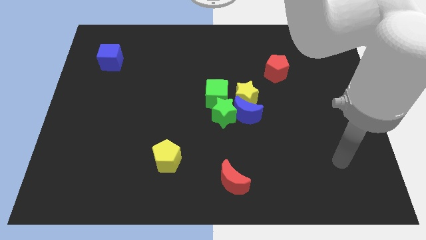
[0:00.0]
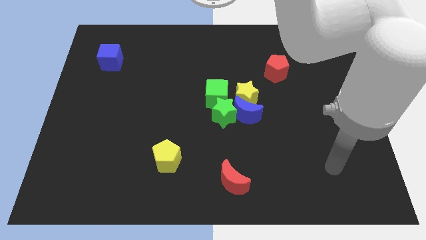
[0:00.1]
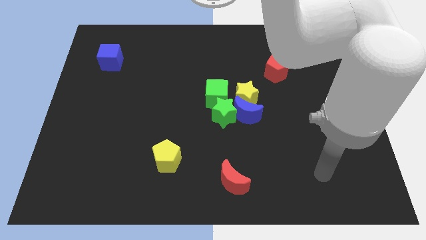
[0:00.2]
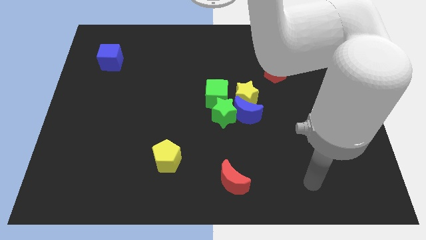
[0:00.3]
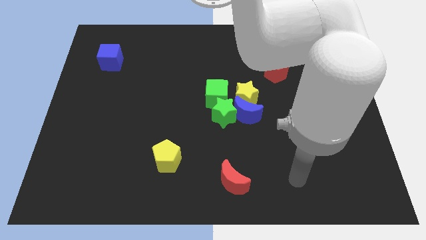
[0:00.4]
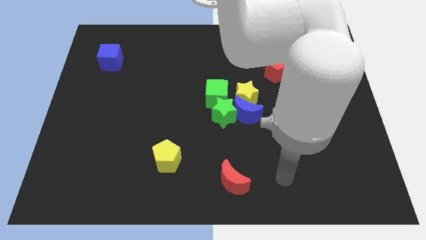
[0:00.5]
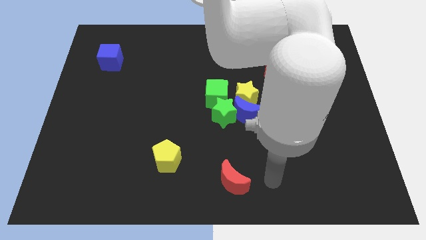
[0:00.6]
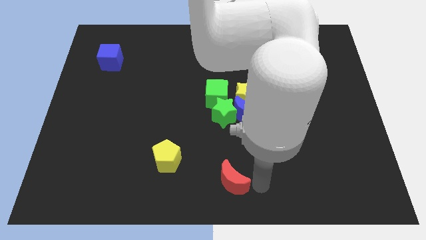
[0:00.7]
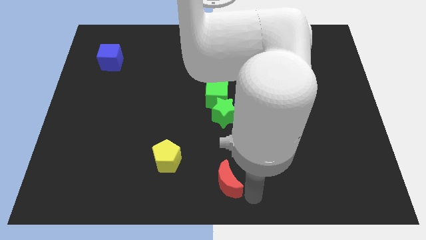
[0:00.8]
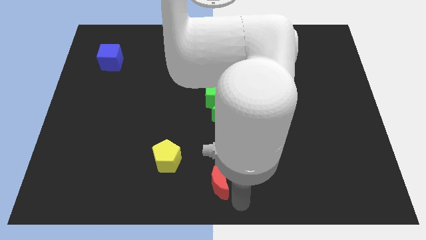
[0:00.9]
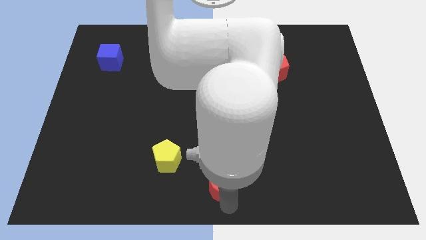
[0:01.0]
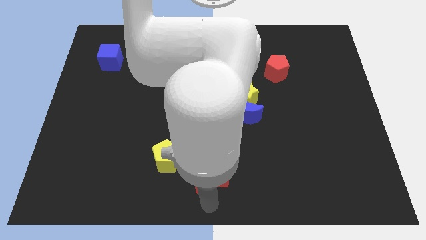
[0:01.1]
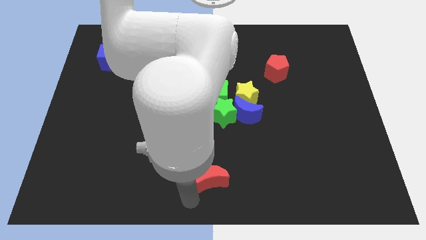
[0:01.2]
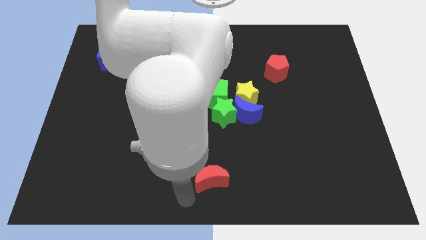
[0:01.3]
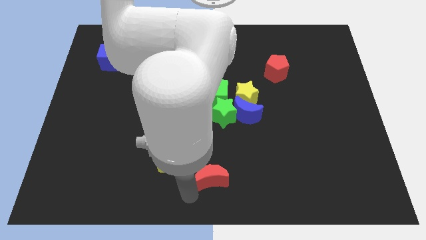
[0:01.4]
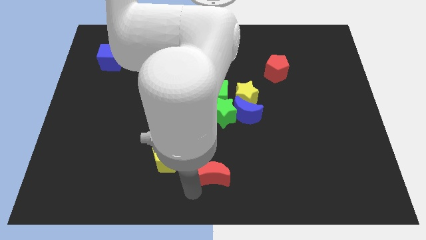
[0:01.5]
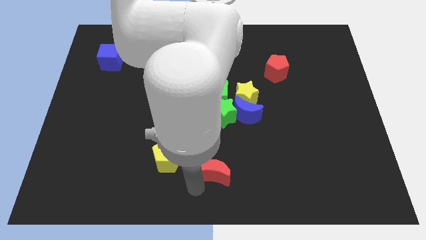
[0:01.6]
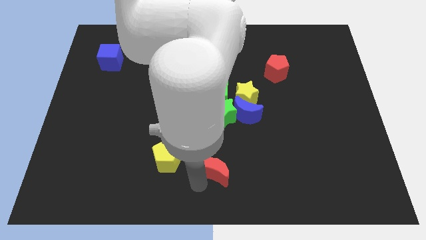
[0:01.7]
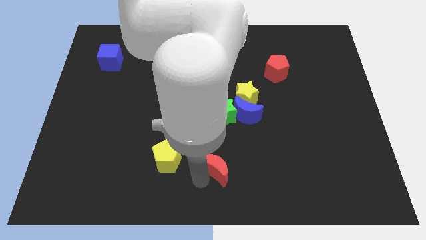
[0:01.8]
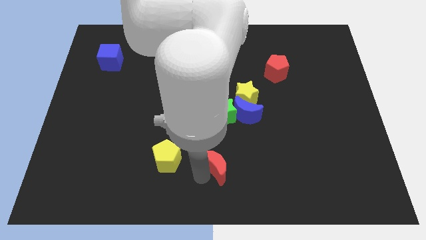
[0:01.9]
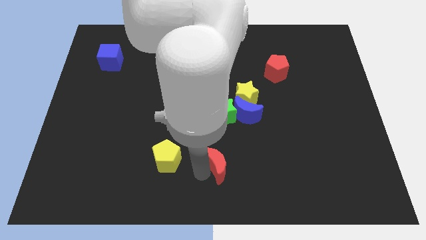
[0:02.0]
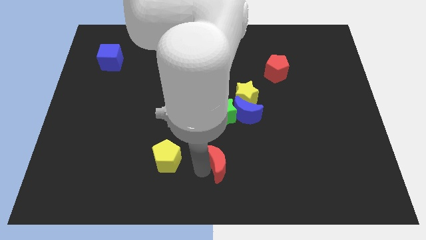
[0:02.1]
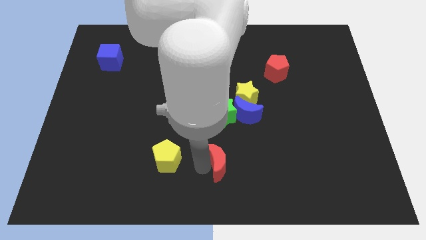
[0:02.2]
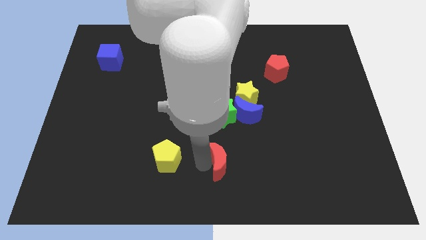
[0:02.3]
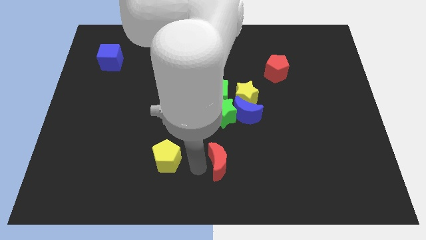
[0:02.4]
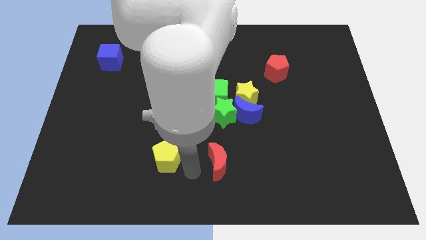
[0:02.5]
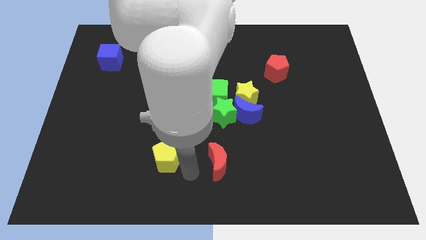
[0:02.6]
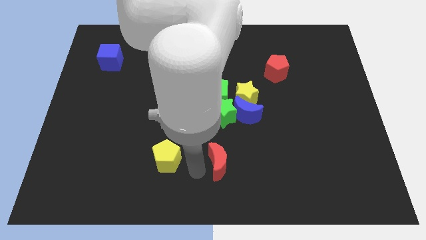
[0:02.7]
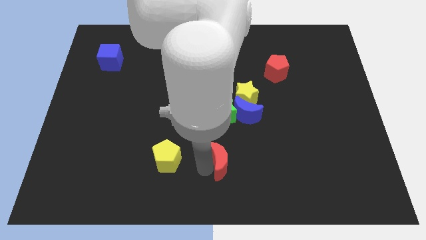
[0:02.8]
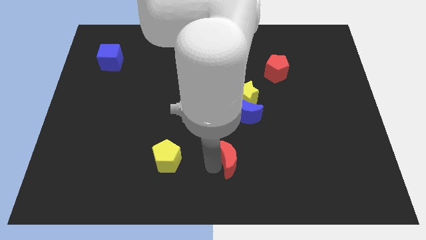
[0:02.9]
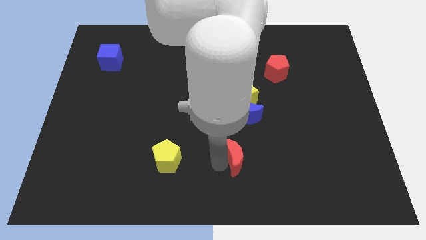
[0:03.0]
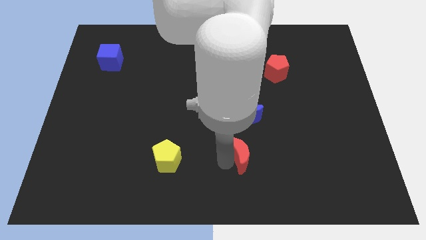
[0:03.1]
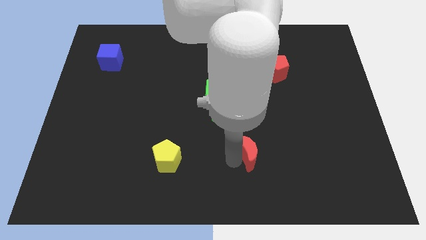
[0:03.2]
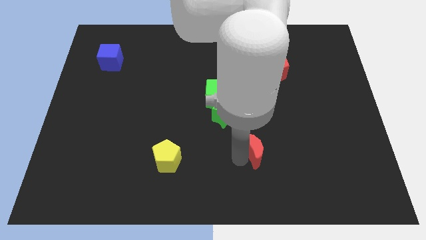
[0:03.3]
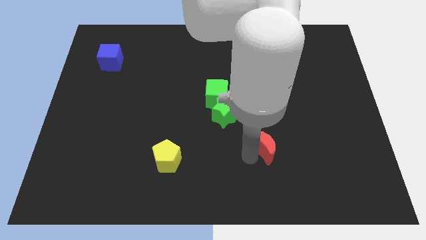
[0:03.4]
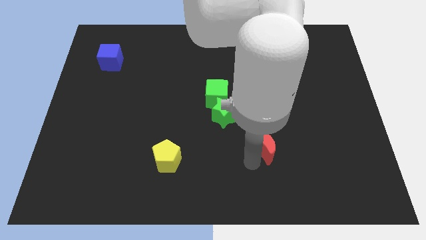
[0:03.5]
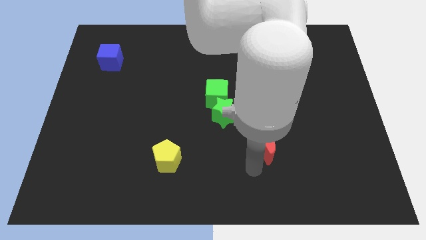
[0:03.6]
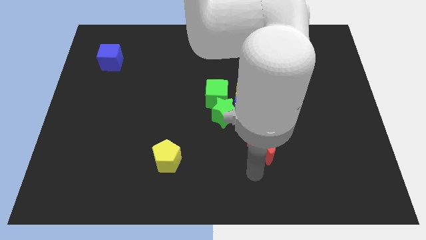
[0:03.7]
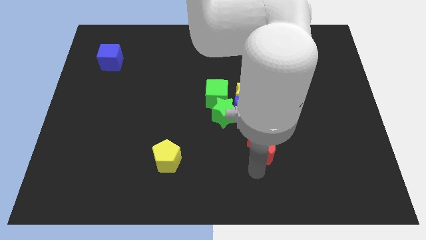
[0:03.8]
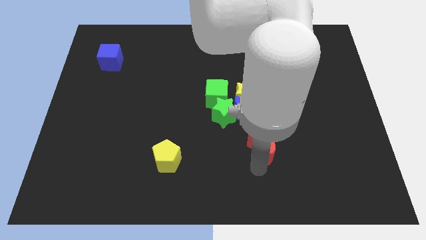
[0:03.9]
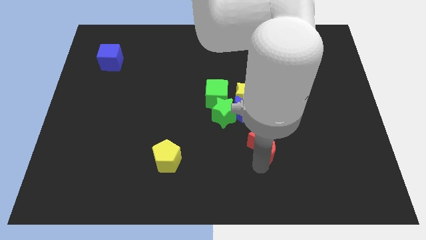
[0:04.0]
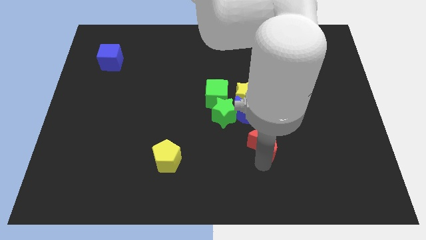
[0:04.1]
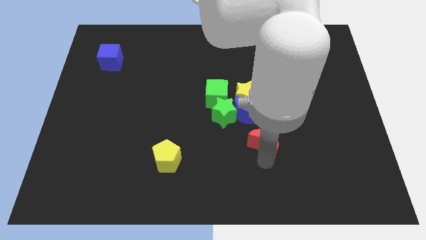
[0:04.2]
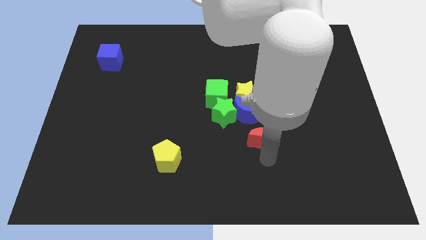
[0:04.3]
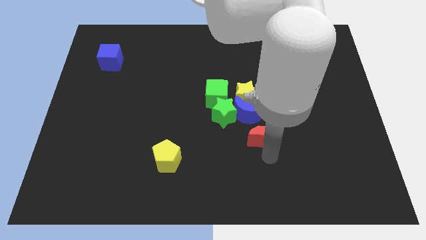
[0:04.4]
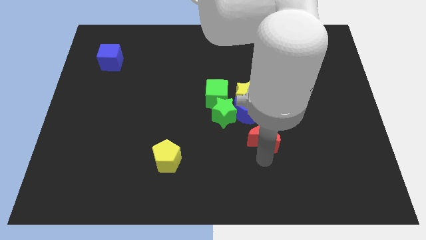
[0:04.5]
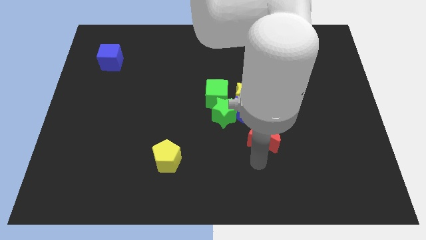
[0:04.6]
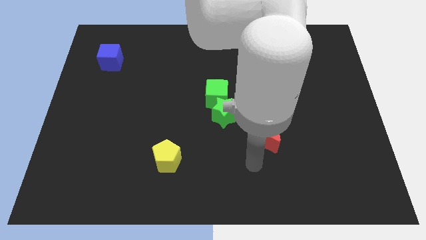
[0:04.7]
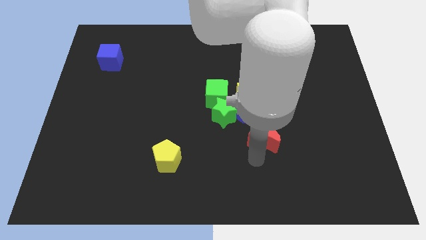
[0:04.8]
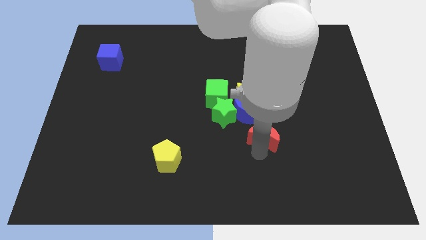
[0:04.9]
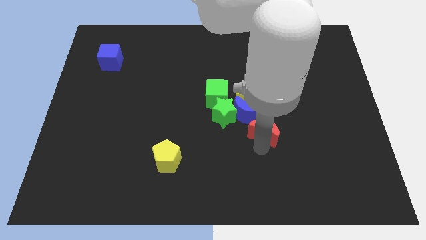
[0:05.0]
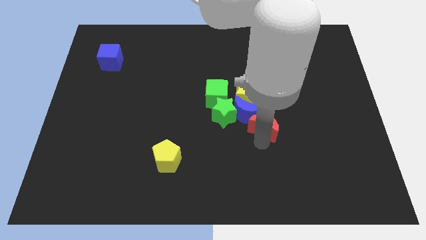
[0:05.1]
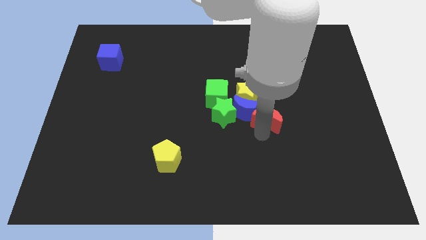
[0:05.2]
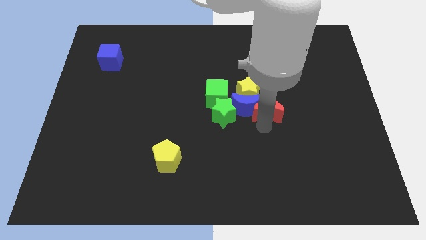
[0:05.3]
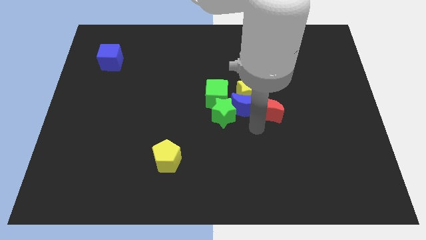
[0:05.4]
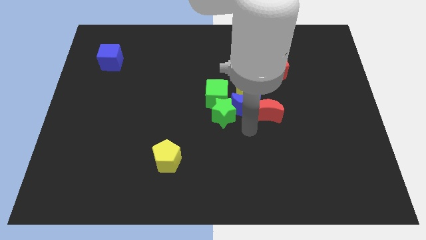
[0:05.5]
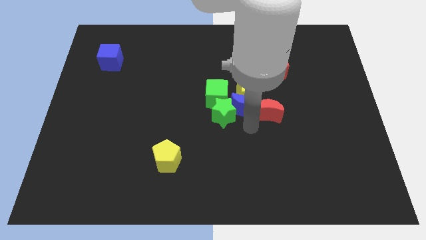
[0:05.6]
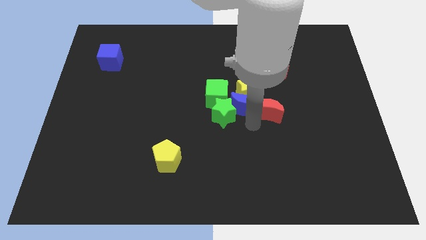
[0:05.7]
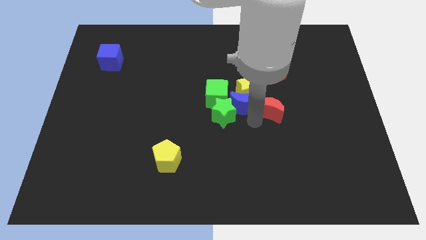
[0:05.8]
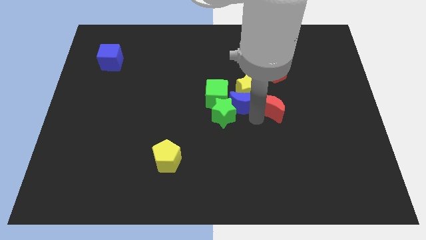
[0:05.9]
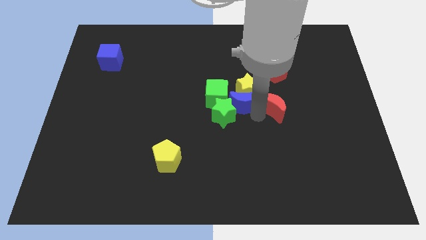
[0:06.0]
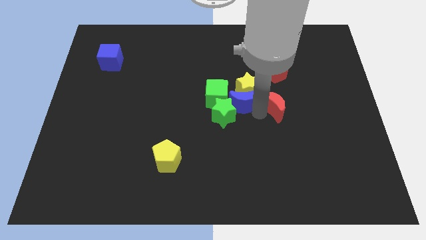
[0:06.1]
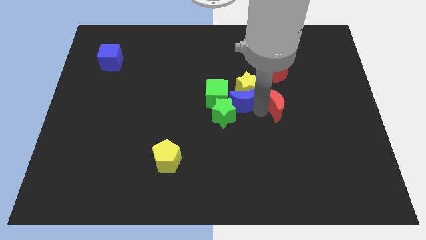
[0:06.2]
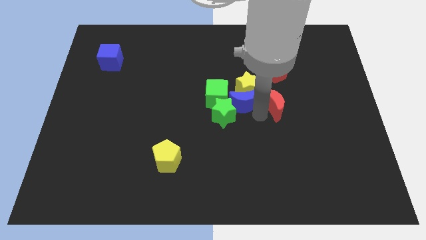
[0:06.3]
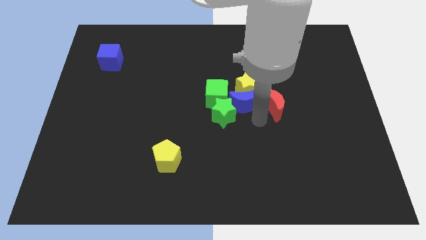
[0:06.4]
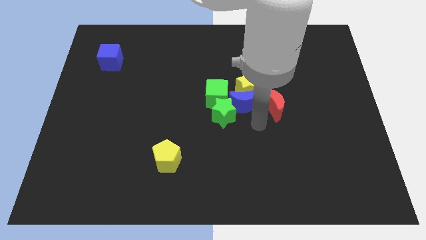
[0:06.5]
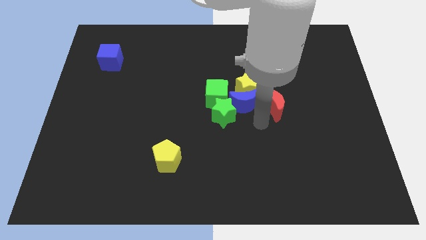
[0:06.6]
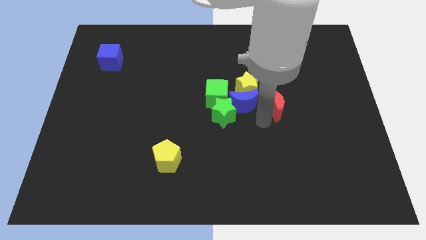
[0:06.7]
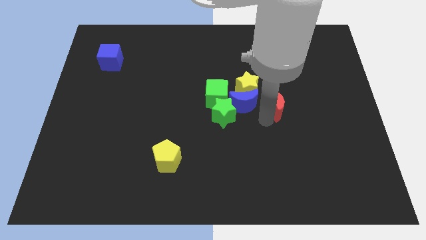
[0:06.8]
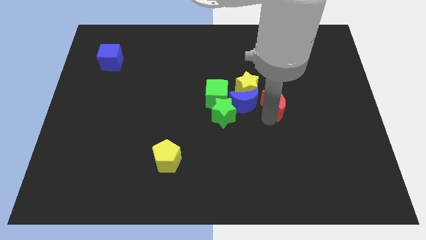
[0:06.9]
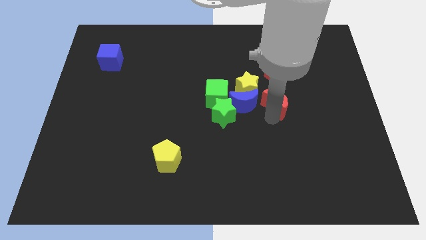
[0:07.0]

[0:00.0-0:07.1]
put the red moon to the right side of the yellow star
